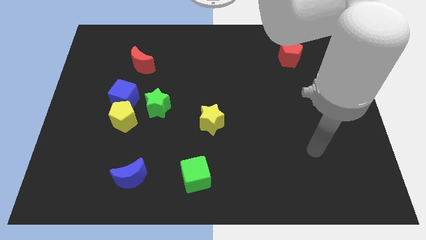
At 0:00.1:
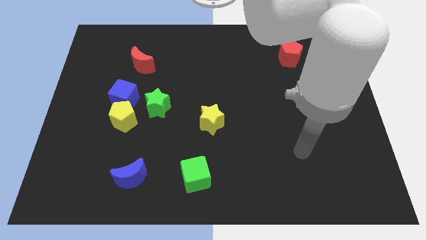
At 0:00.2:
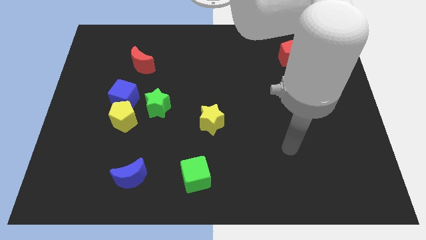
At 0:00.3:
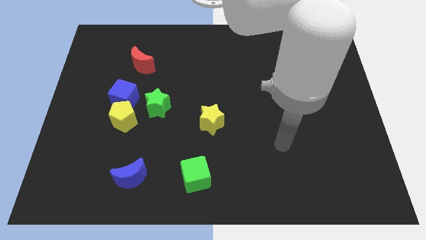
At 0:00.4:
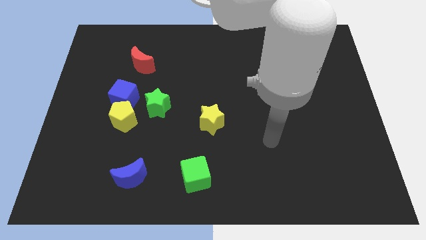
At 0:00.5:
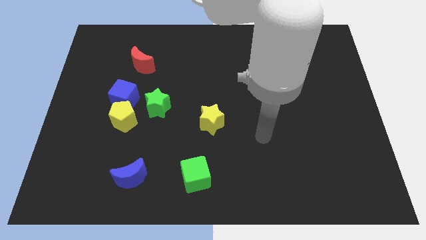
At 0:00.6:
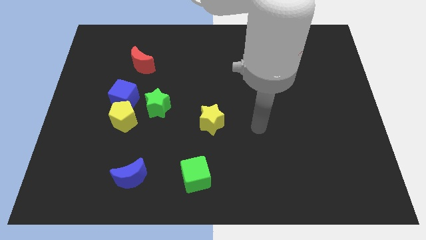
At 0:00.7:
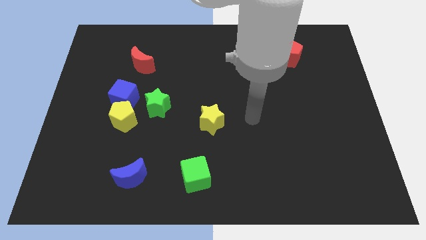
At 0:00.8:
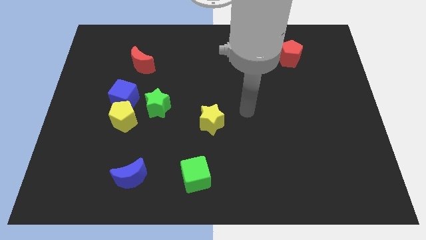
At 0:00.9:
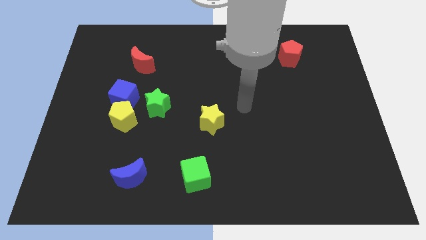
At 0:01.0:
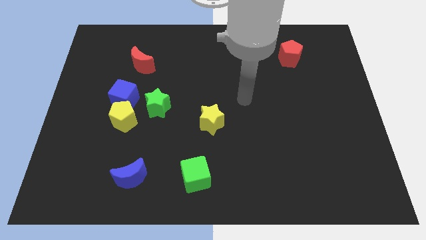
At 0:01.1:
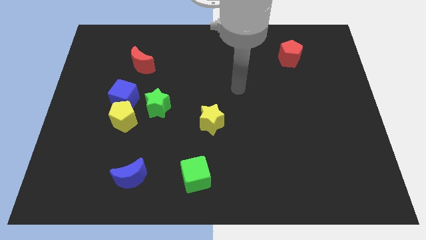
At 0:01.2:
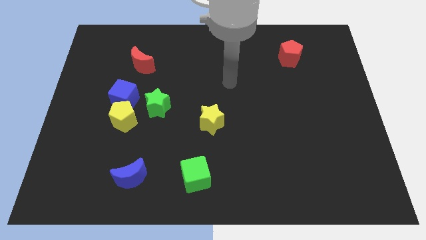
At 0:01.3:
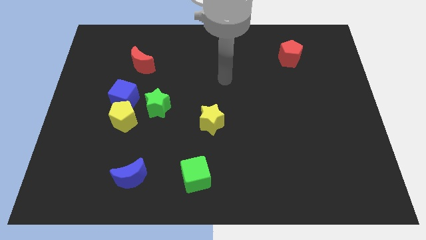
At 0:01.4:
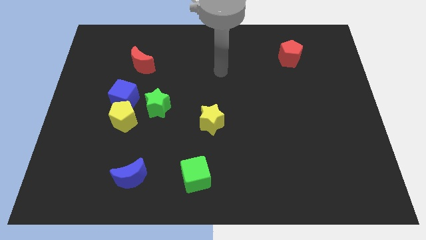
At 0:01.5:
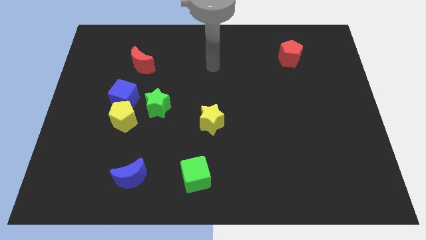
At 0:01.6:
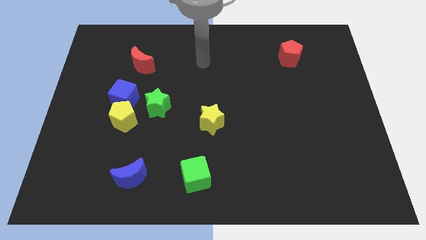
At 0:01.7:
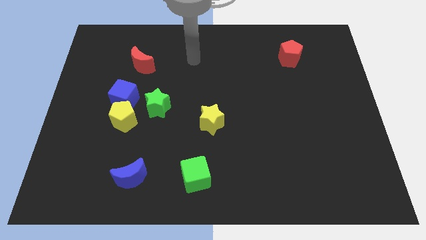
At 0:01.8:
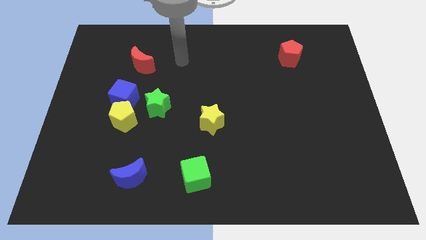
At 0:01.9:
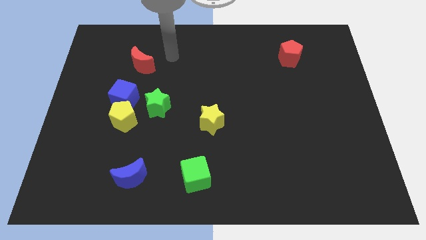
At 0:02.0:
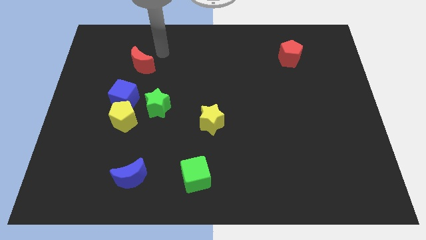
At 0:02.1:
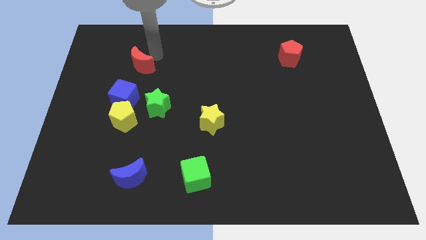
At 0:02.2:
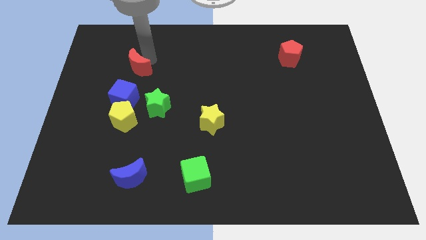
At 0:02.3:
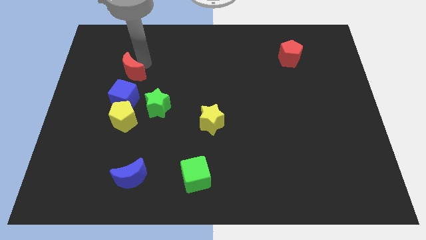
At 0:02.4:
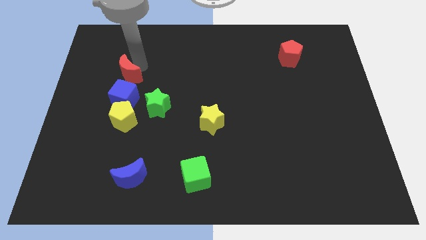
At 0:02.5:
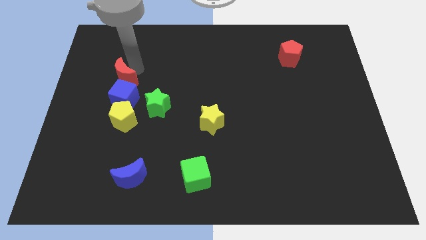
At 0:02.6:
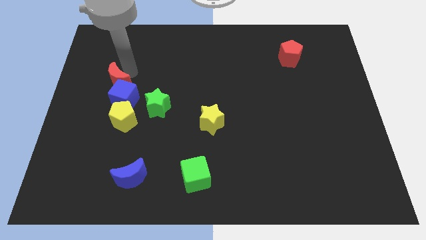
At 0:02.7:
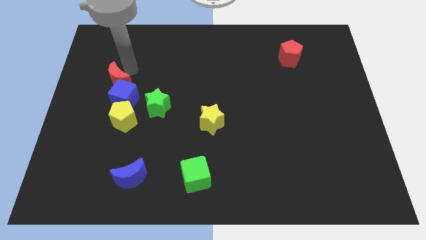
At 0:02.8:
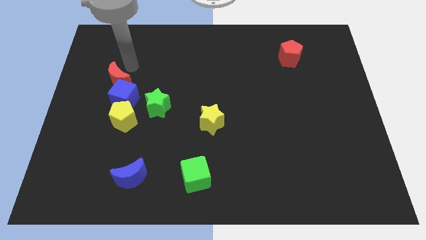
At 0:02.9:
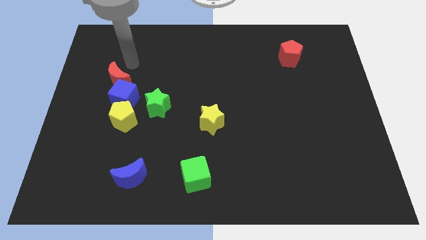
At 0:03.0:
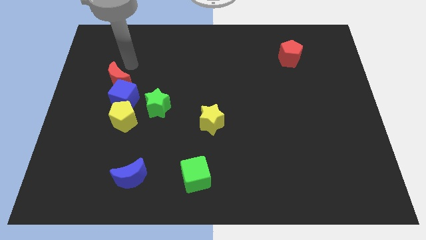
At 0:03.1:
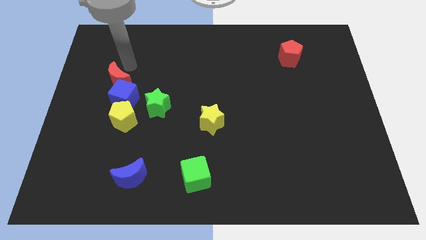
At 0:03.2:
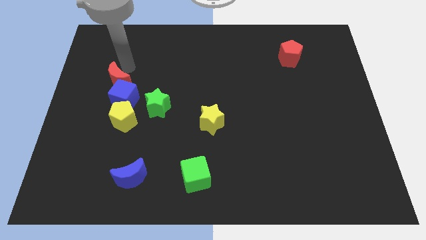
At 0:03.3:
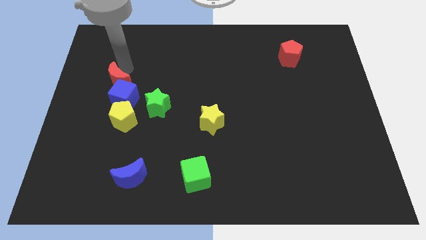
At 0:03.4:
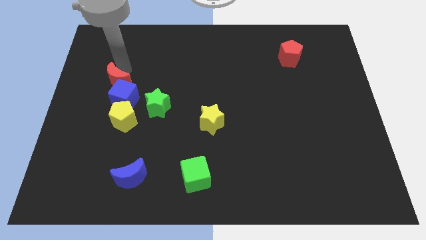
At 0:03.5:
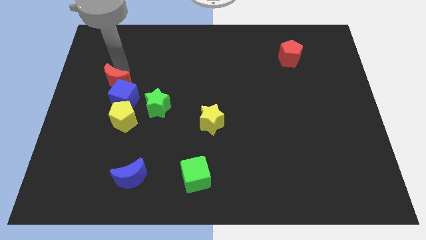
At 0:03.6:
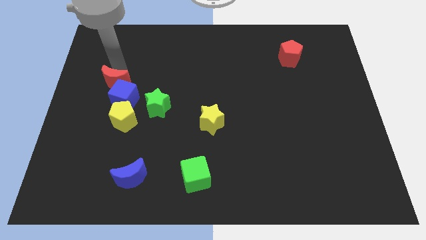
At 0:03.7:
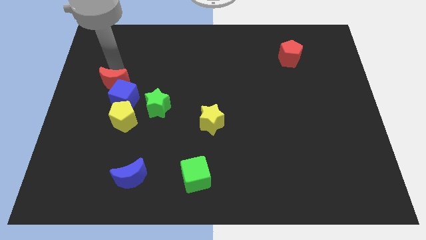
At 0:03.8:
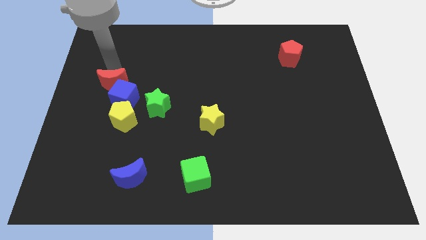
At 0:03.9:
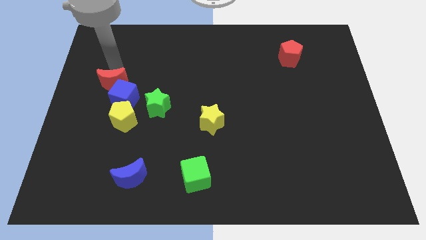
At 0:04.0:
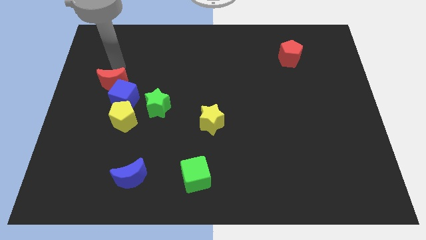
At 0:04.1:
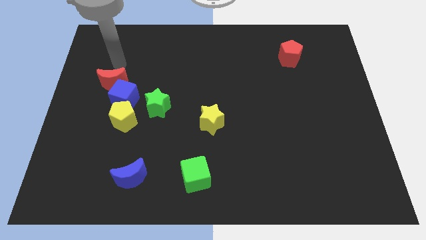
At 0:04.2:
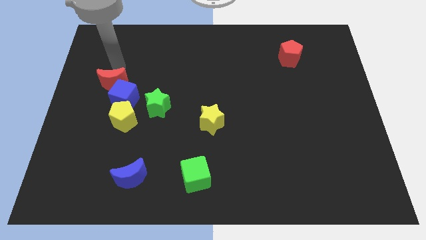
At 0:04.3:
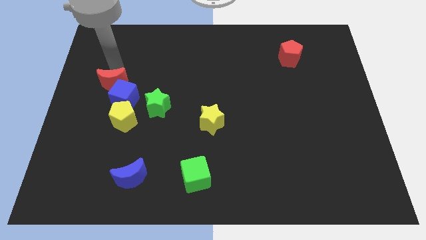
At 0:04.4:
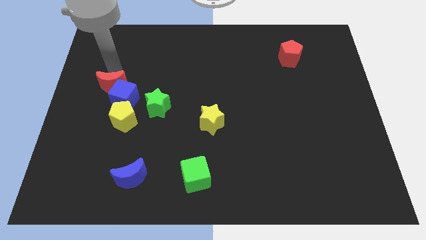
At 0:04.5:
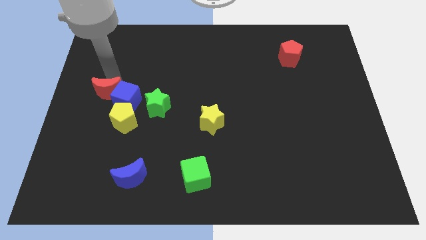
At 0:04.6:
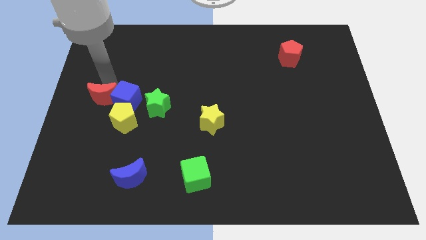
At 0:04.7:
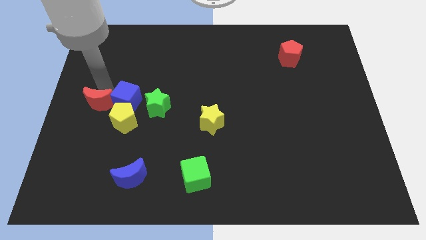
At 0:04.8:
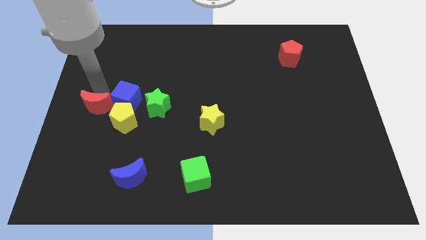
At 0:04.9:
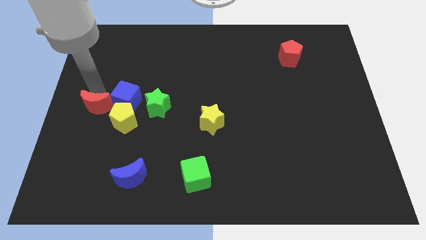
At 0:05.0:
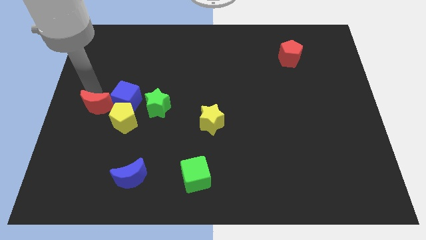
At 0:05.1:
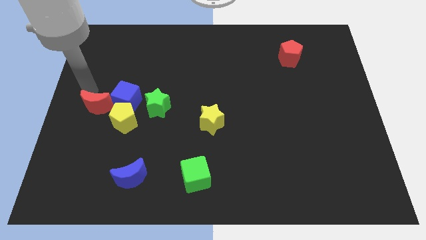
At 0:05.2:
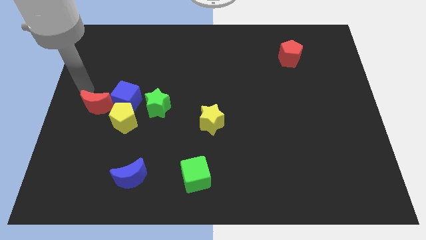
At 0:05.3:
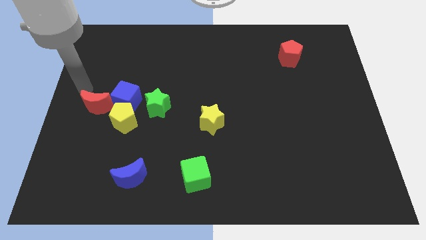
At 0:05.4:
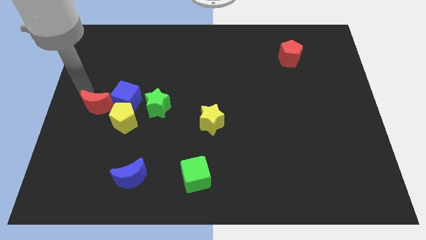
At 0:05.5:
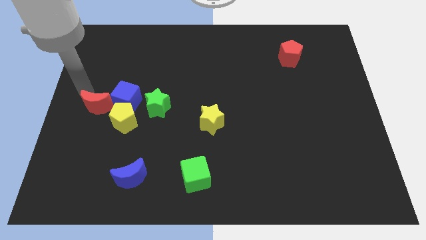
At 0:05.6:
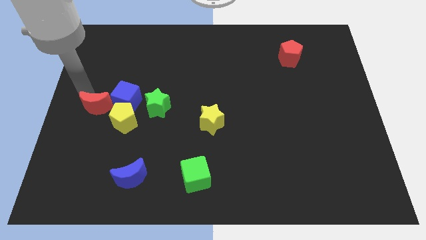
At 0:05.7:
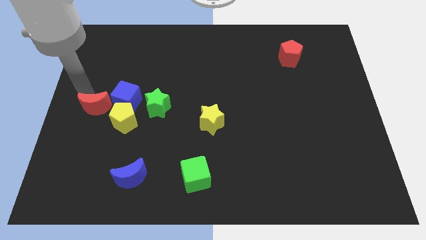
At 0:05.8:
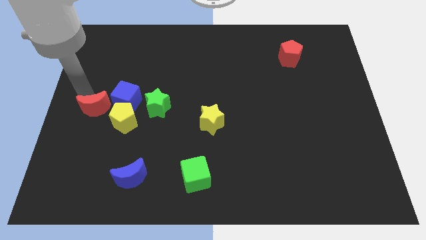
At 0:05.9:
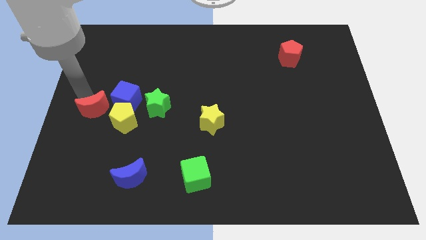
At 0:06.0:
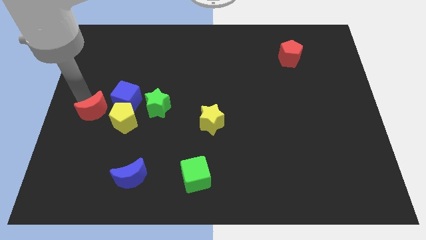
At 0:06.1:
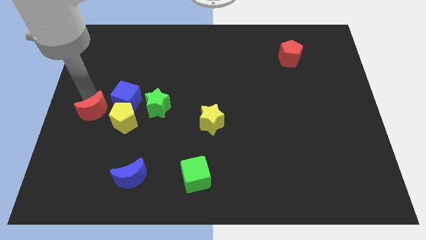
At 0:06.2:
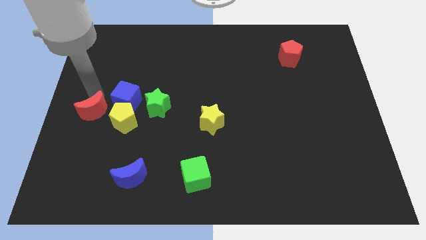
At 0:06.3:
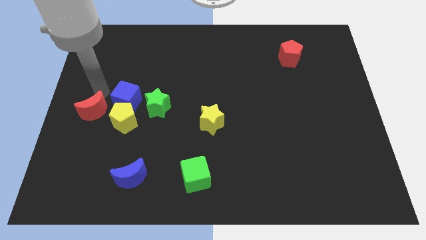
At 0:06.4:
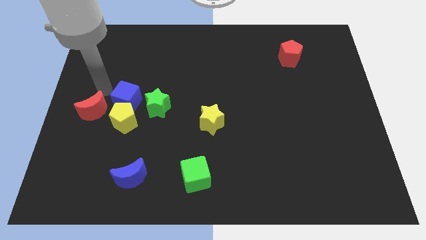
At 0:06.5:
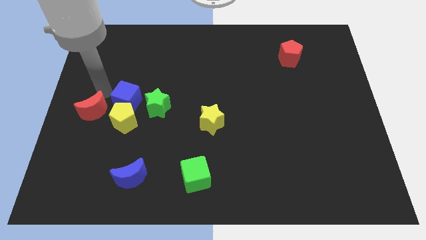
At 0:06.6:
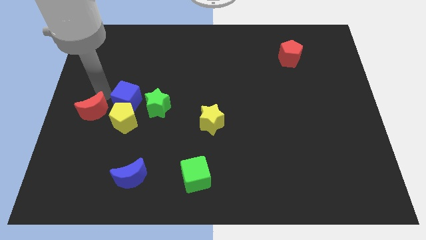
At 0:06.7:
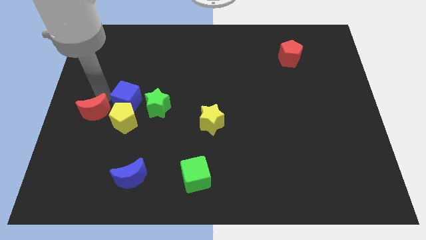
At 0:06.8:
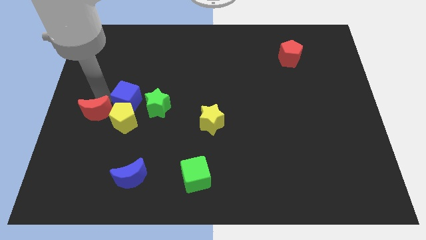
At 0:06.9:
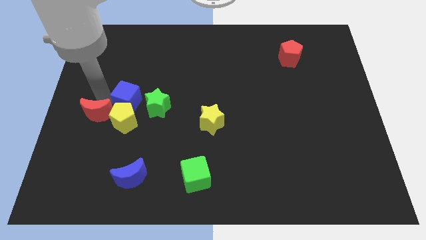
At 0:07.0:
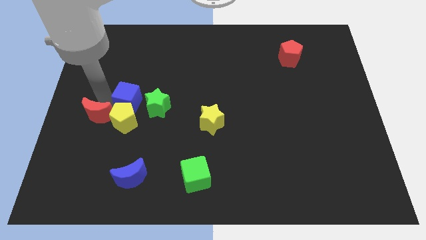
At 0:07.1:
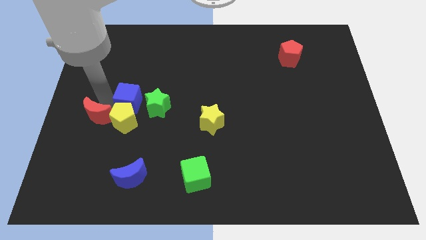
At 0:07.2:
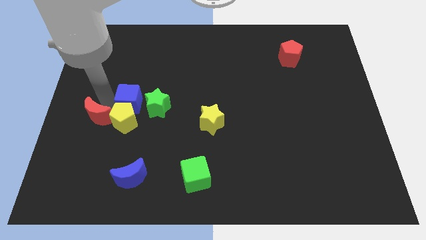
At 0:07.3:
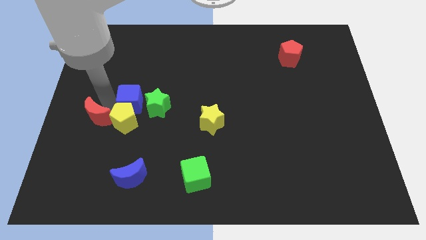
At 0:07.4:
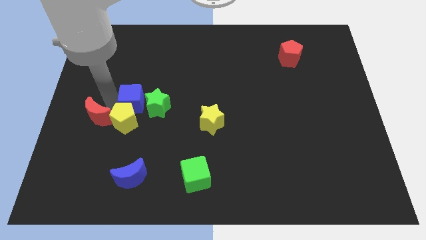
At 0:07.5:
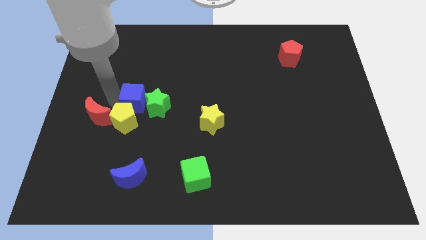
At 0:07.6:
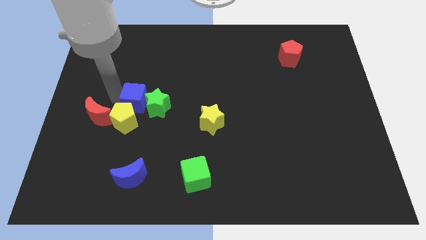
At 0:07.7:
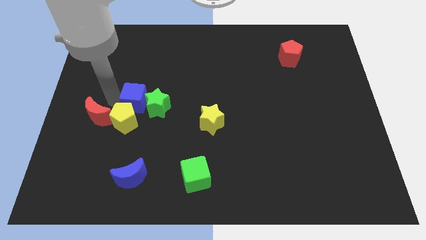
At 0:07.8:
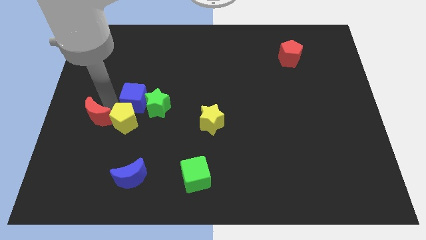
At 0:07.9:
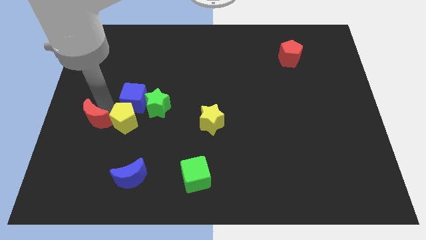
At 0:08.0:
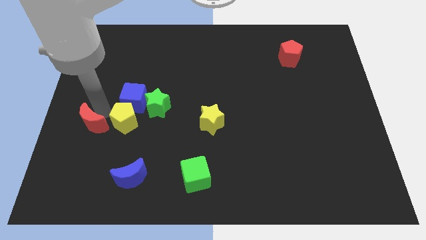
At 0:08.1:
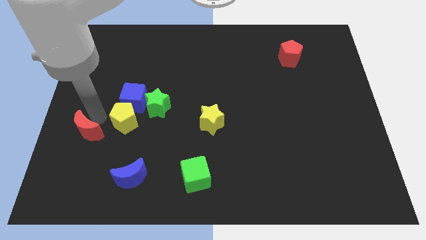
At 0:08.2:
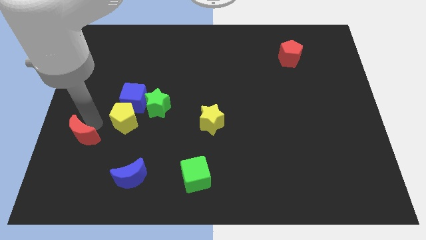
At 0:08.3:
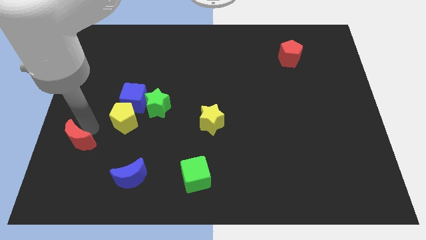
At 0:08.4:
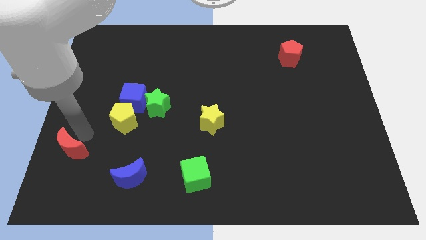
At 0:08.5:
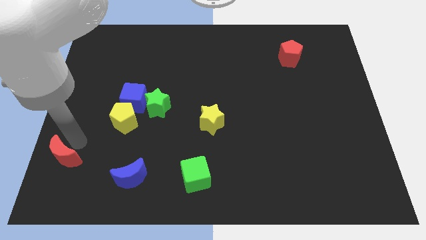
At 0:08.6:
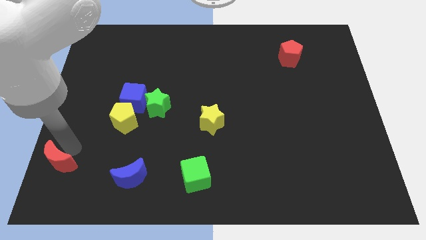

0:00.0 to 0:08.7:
slide the red moon to the bottom left
